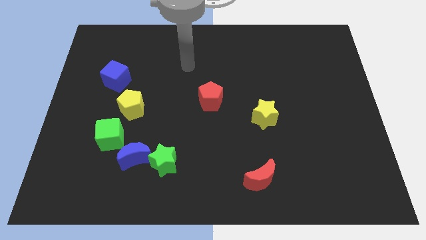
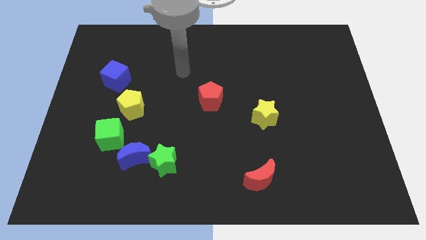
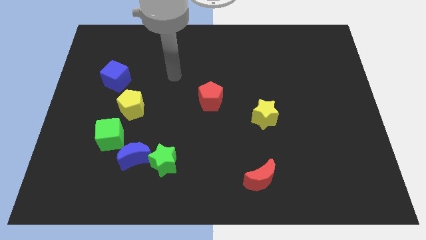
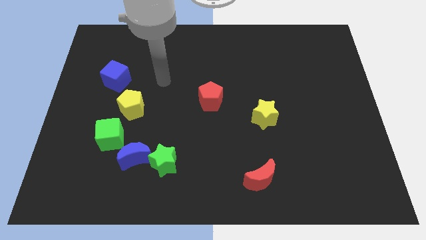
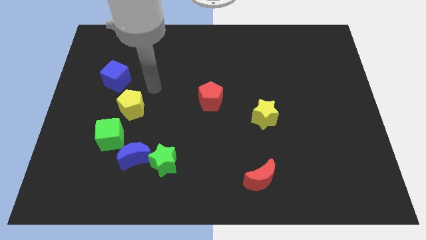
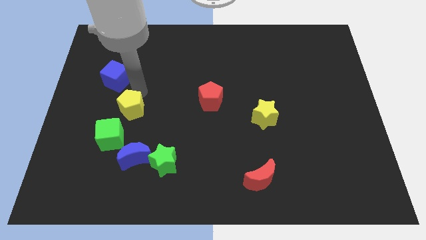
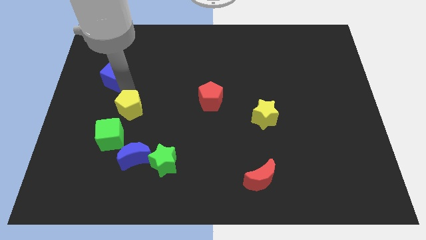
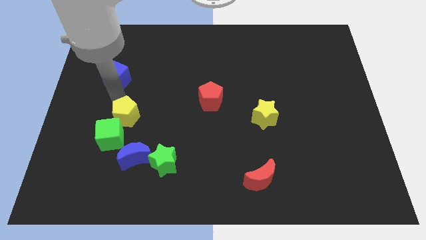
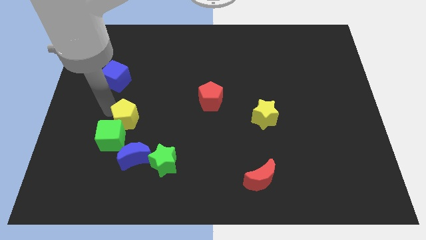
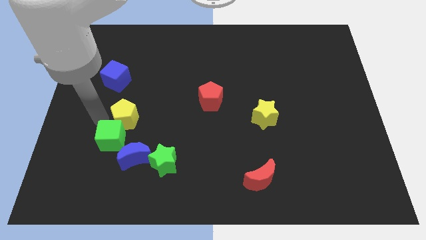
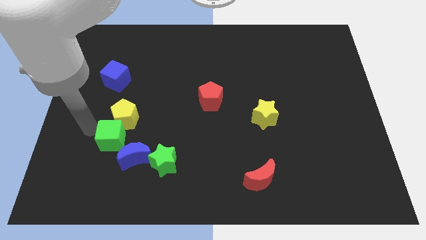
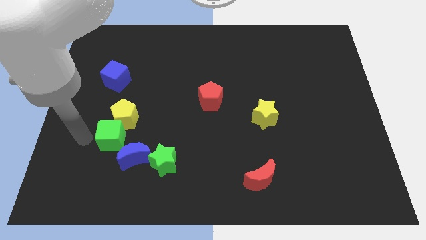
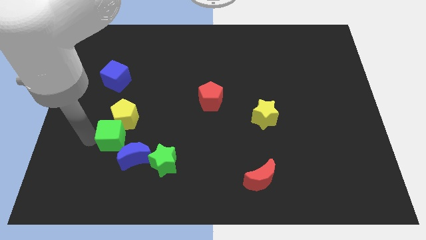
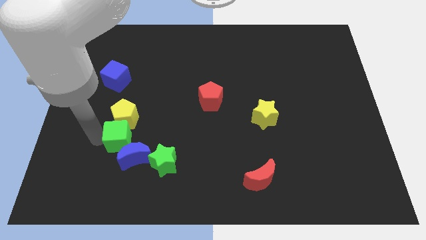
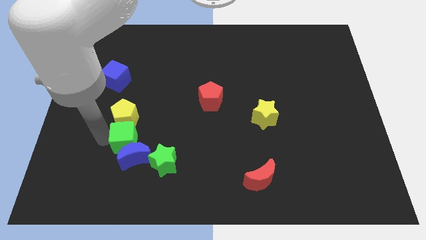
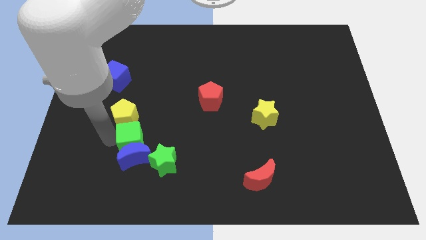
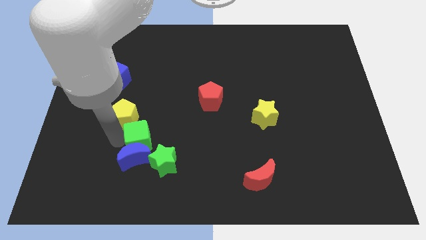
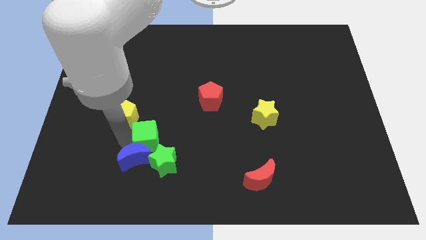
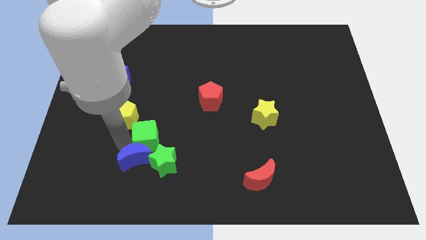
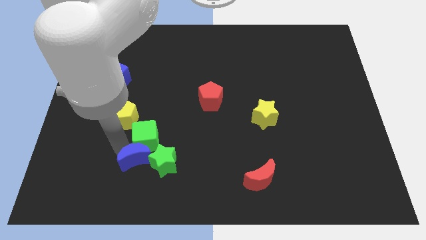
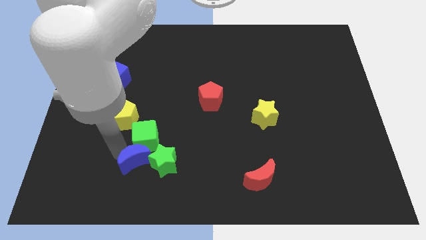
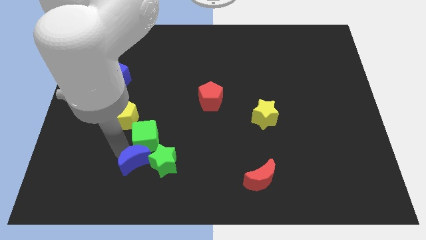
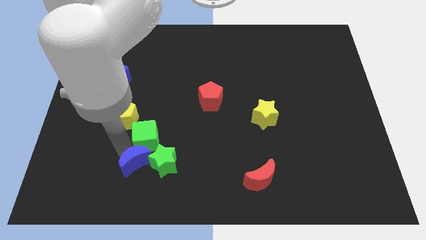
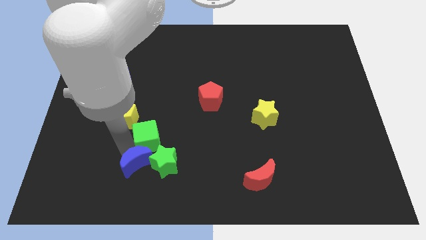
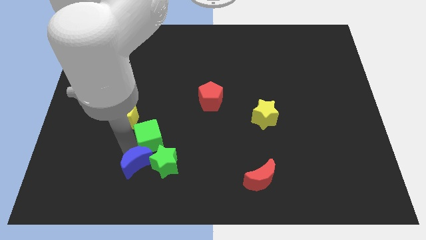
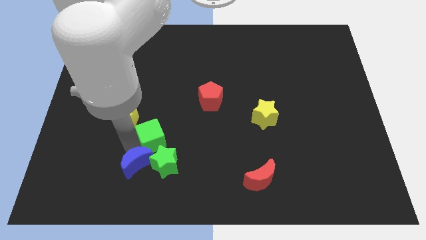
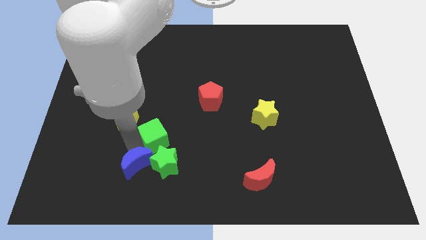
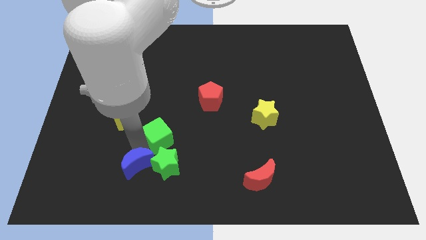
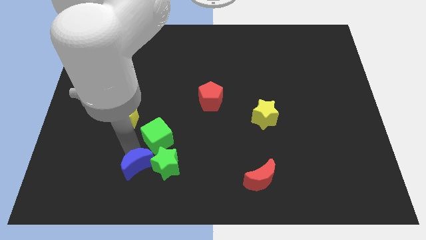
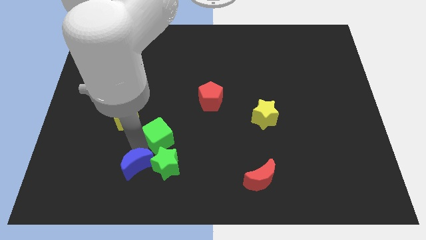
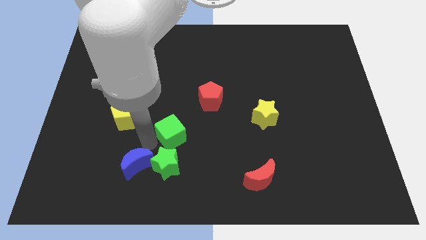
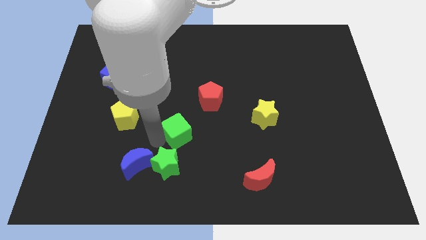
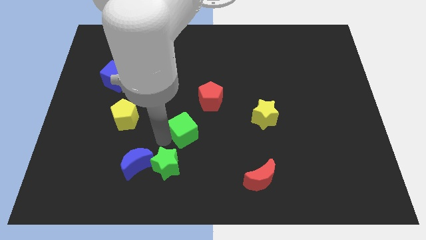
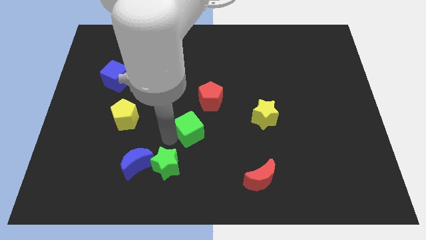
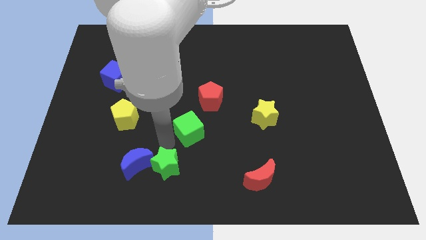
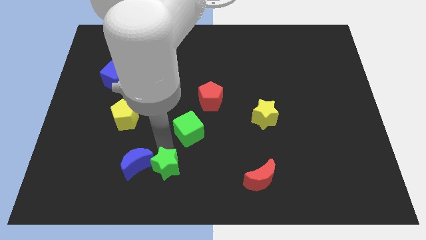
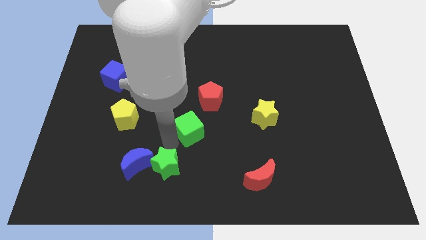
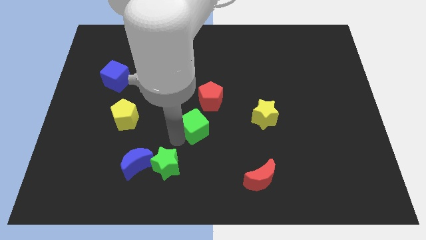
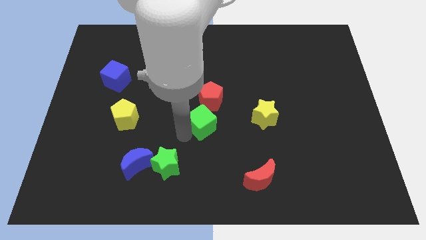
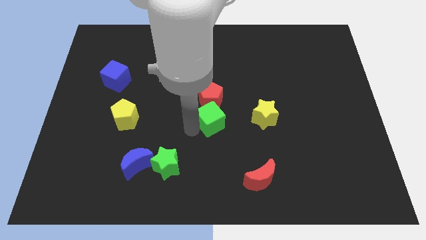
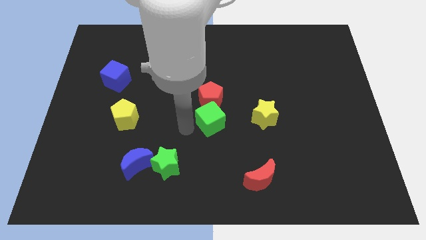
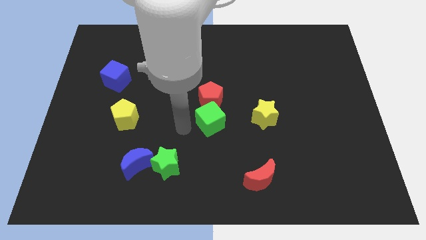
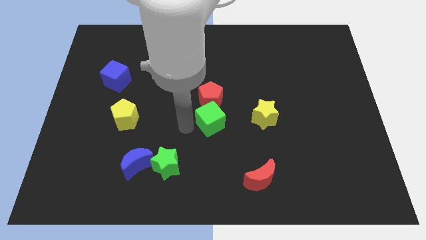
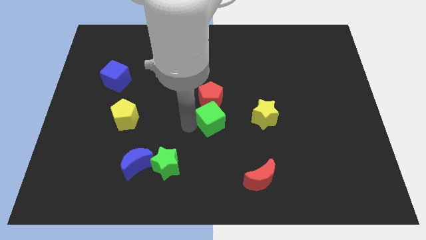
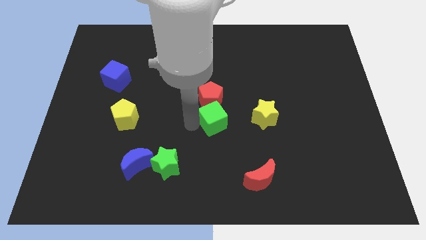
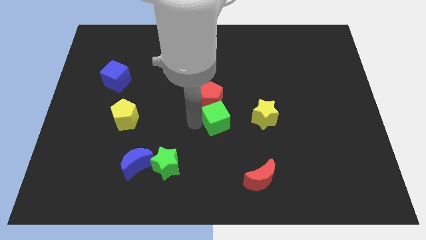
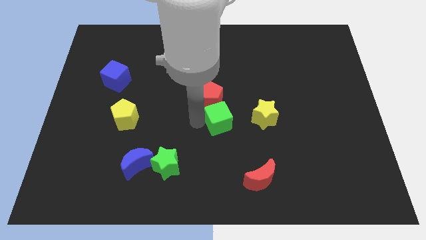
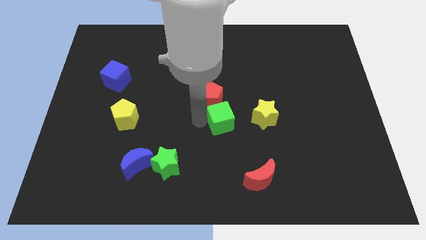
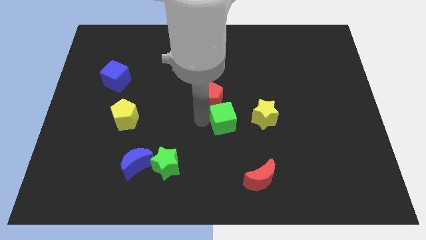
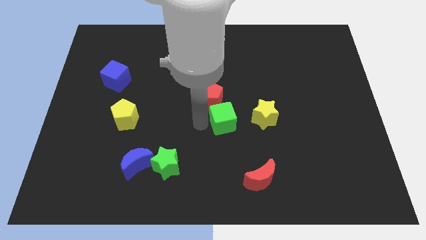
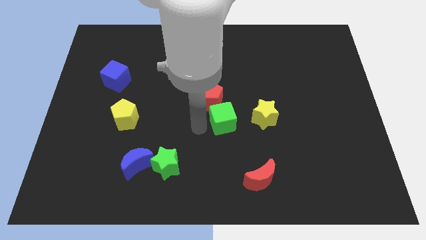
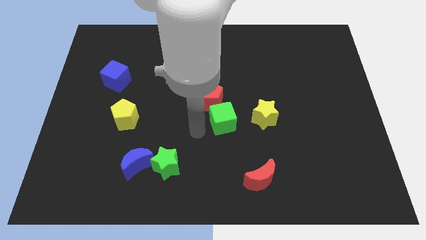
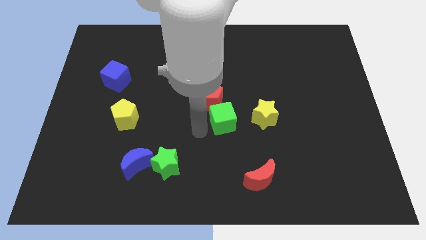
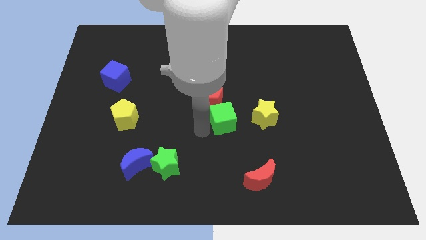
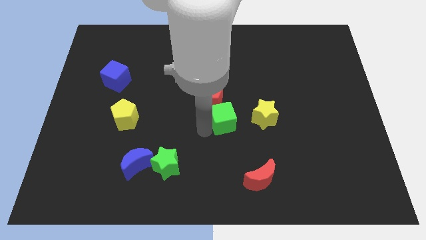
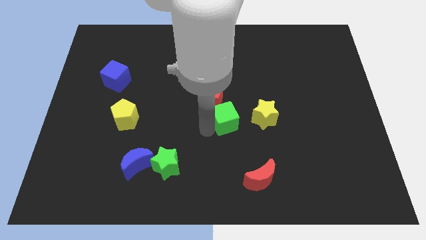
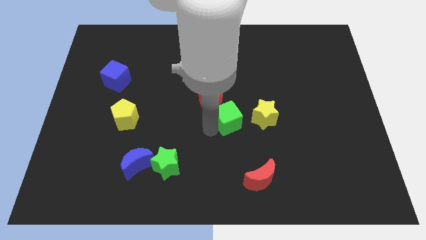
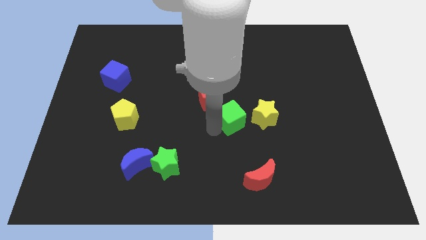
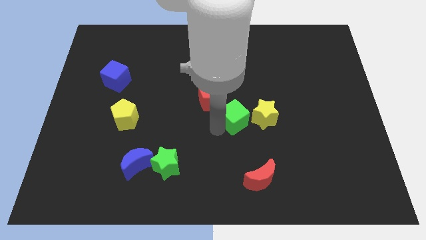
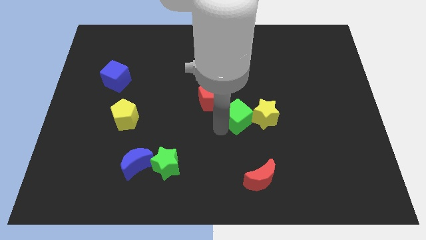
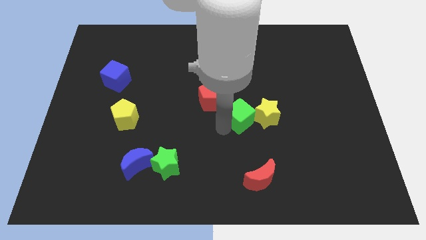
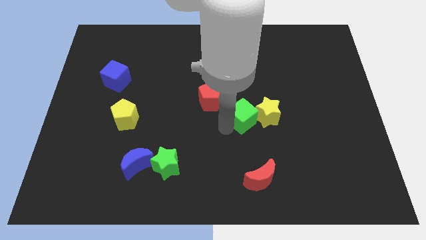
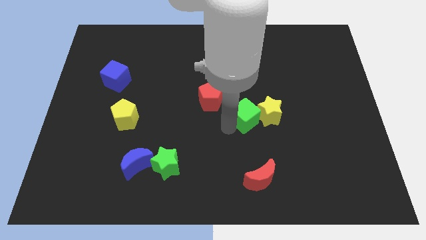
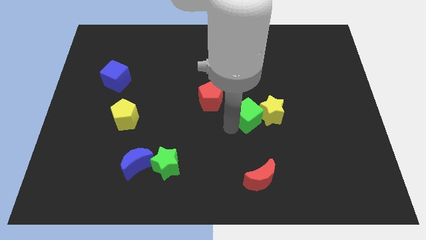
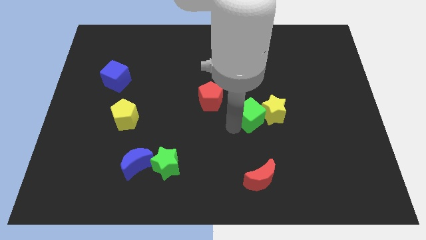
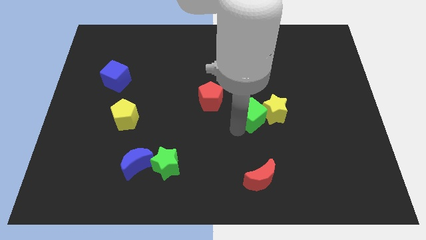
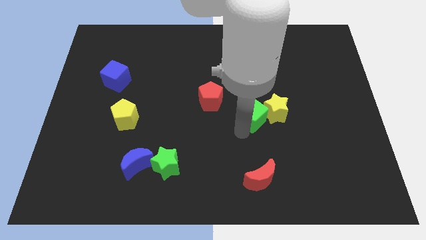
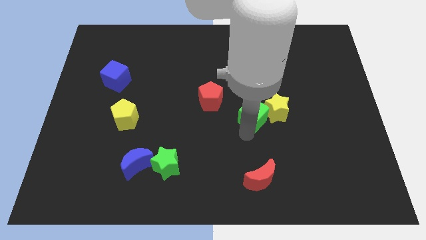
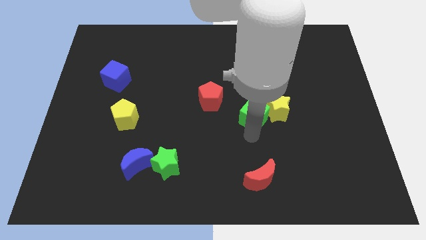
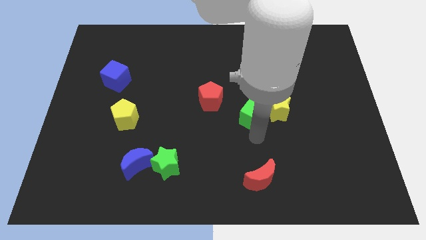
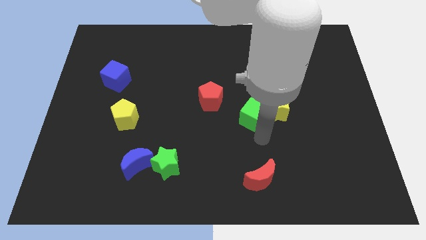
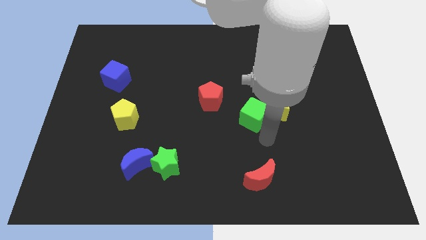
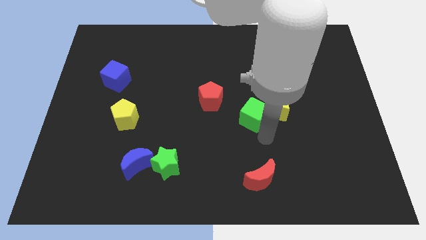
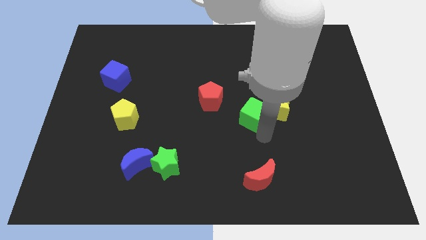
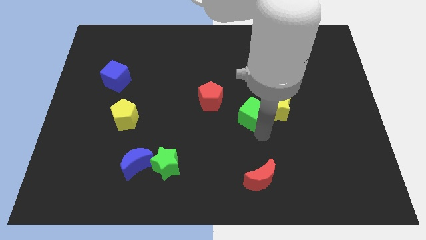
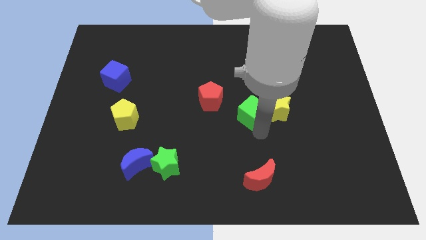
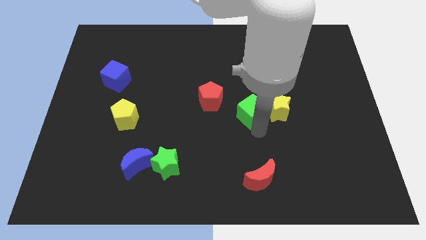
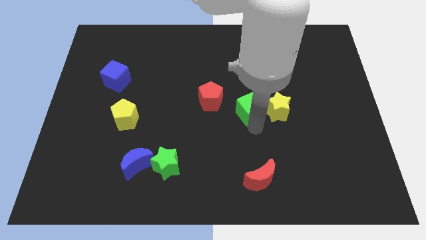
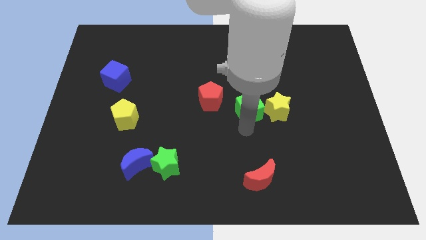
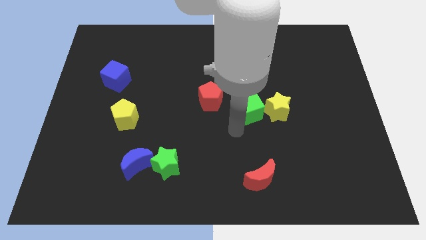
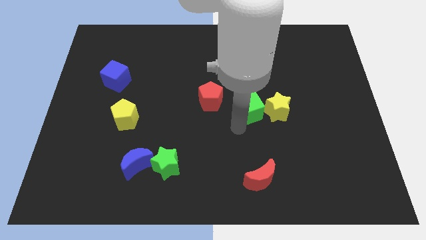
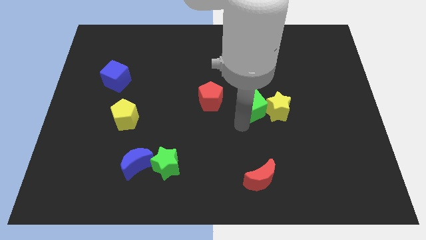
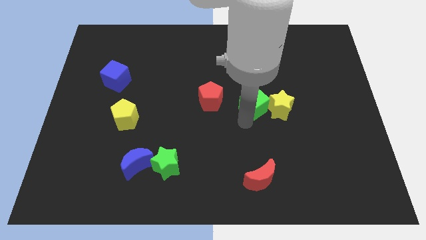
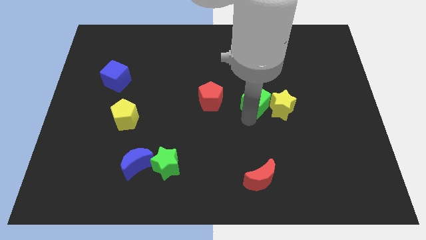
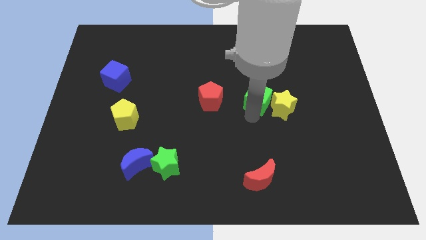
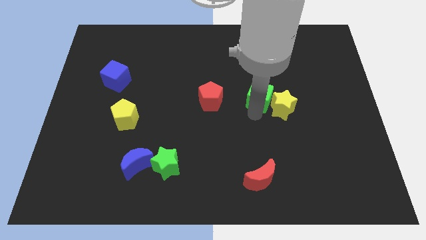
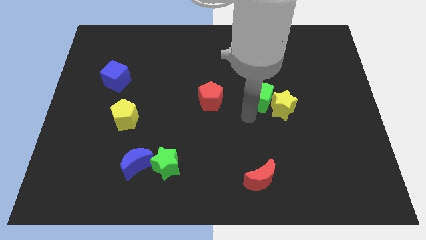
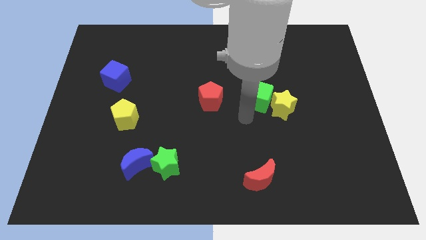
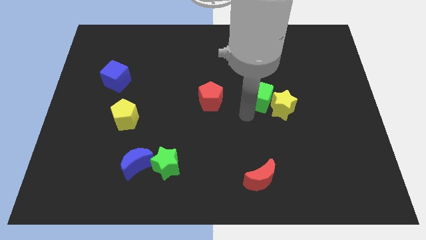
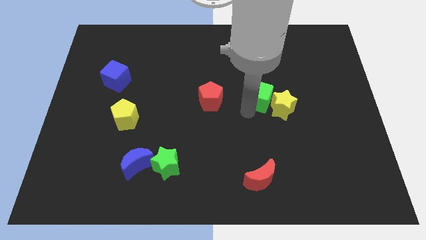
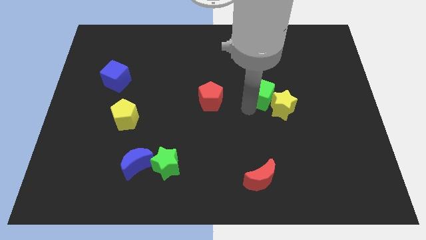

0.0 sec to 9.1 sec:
move the green cube above the yellow star
